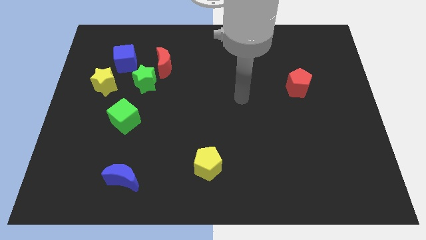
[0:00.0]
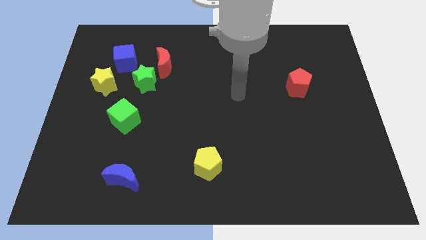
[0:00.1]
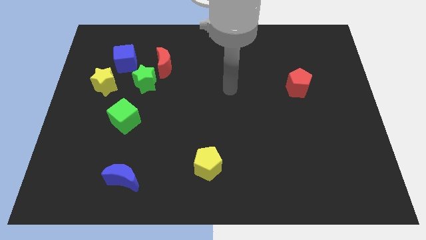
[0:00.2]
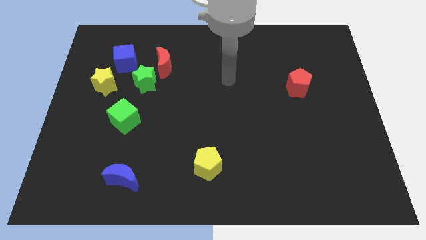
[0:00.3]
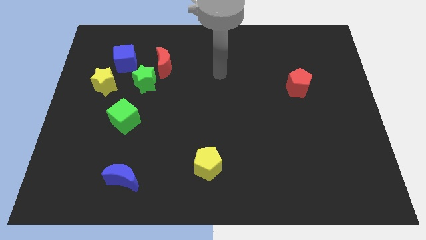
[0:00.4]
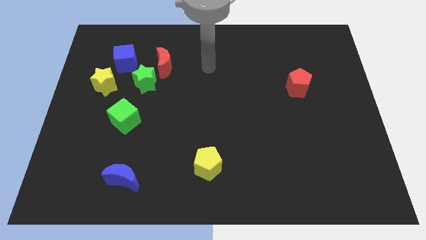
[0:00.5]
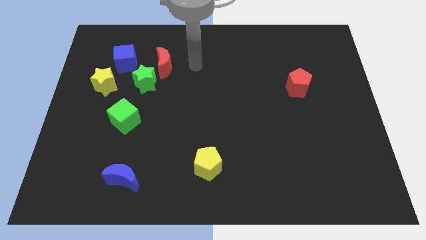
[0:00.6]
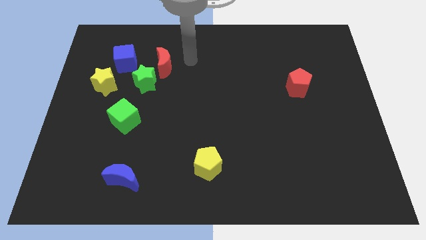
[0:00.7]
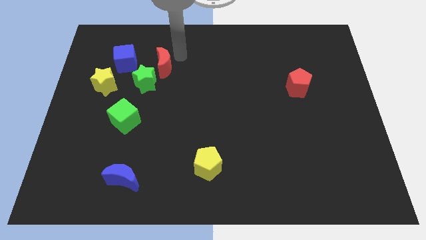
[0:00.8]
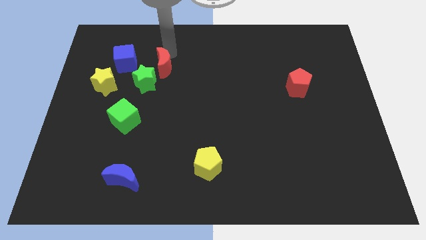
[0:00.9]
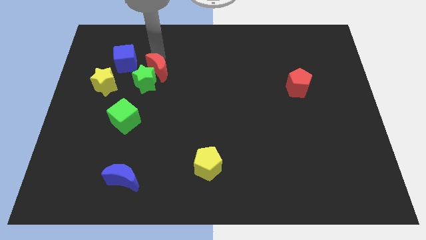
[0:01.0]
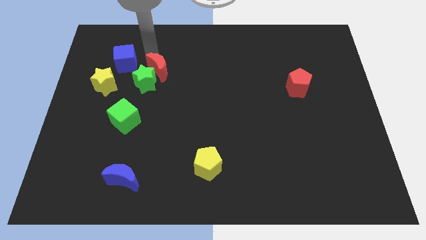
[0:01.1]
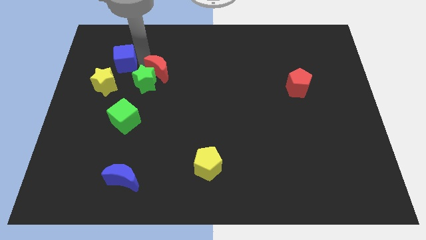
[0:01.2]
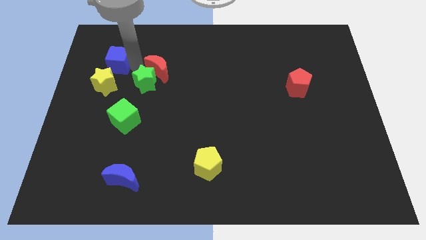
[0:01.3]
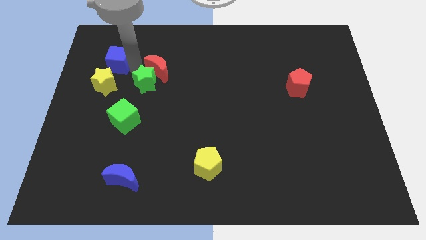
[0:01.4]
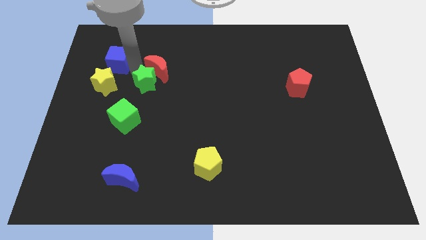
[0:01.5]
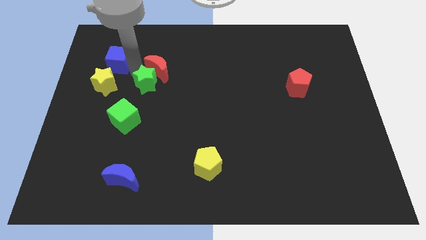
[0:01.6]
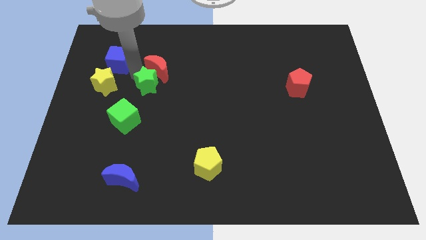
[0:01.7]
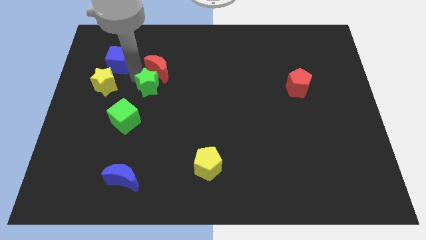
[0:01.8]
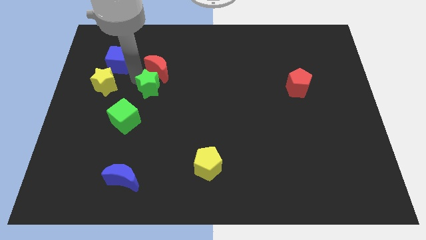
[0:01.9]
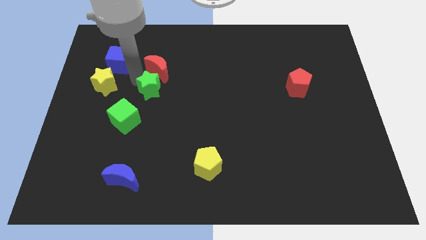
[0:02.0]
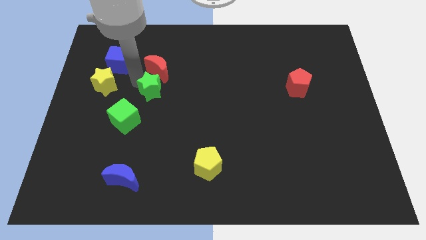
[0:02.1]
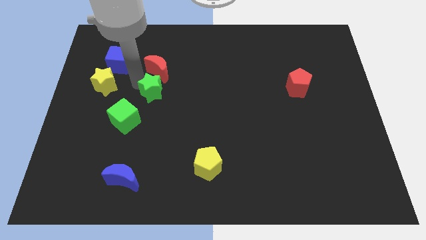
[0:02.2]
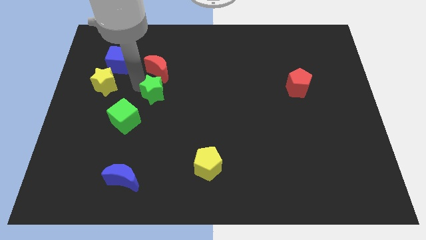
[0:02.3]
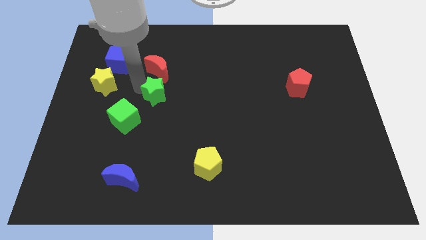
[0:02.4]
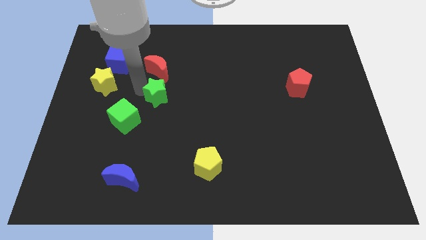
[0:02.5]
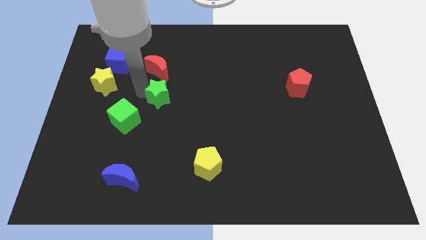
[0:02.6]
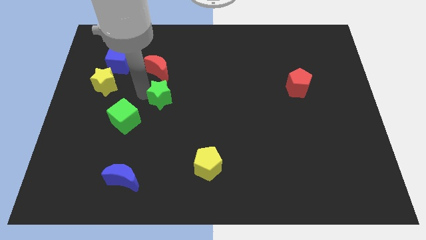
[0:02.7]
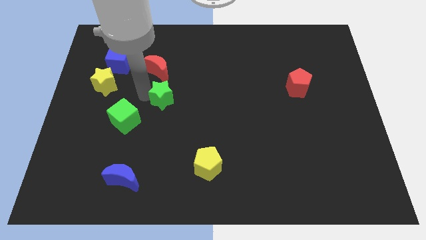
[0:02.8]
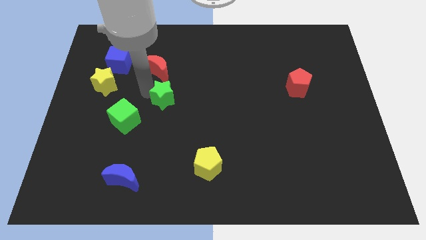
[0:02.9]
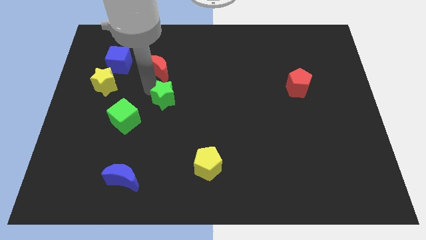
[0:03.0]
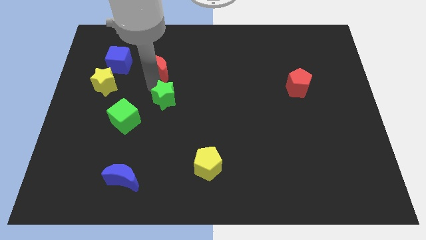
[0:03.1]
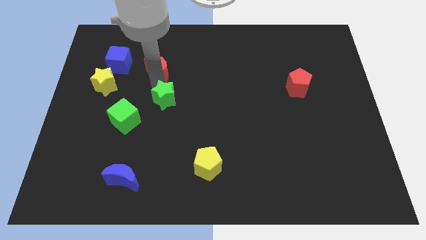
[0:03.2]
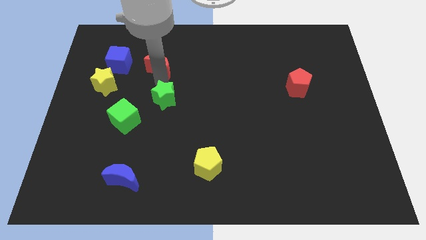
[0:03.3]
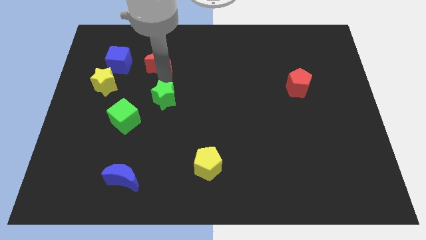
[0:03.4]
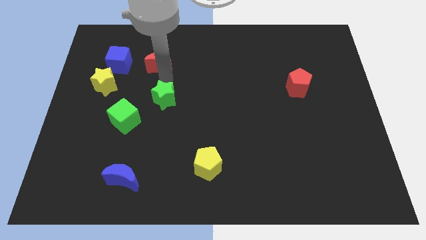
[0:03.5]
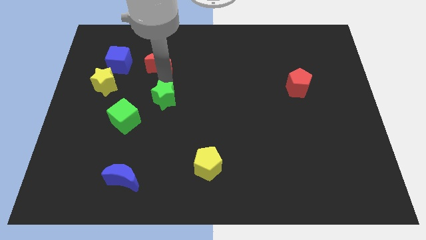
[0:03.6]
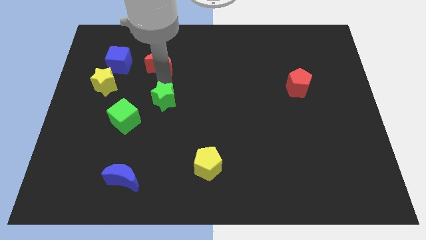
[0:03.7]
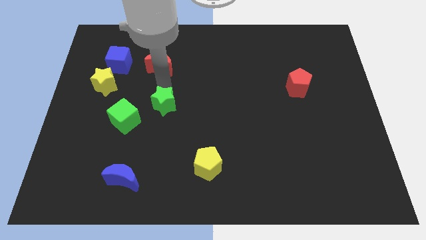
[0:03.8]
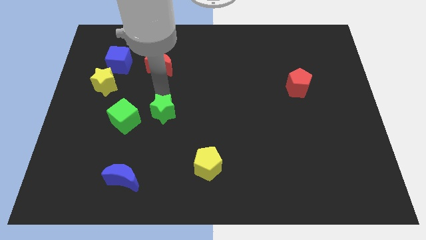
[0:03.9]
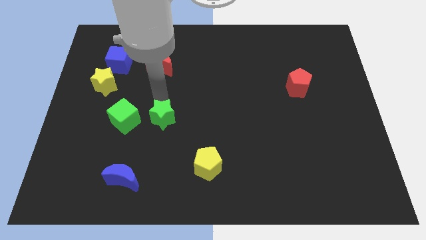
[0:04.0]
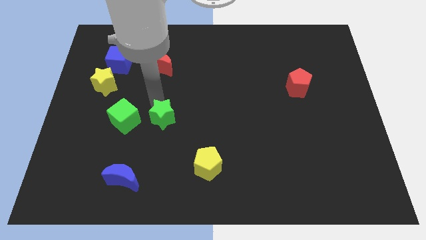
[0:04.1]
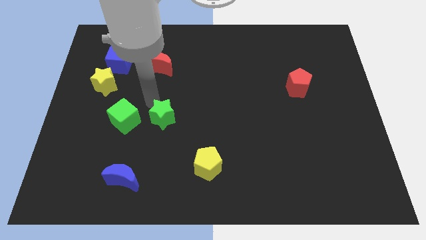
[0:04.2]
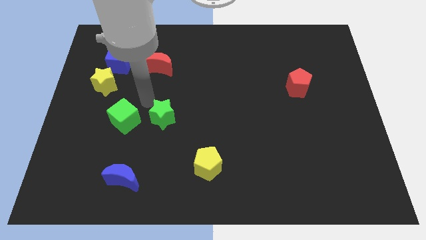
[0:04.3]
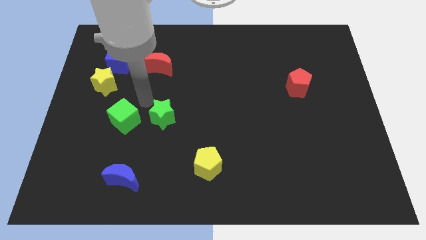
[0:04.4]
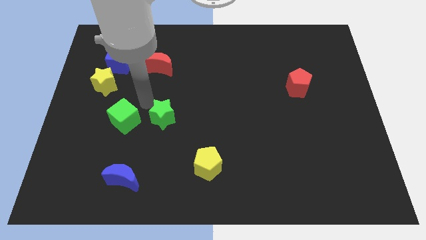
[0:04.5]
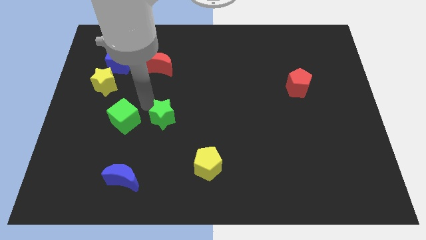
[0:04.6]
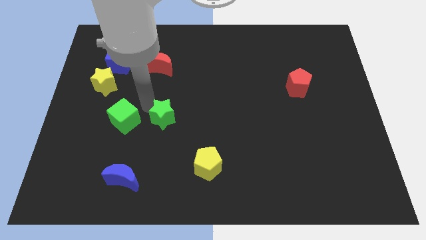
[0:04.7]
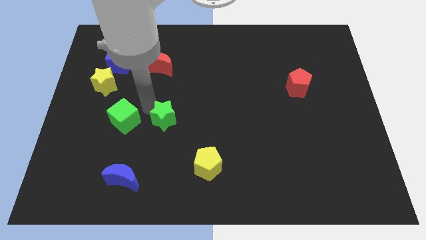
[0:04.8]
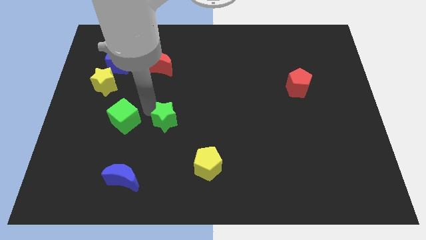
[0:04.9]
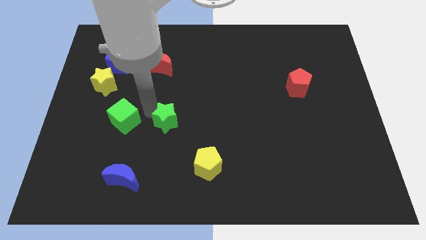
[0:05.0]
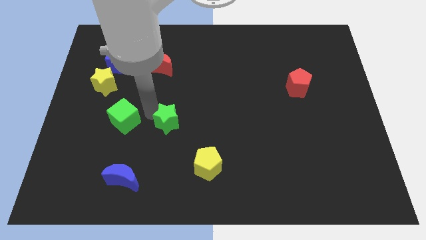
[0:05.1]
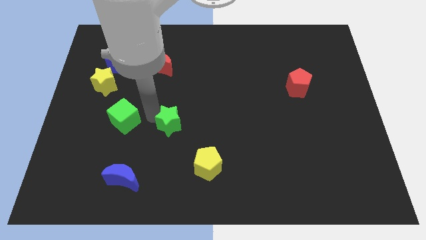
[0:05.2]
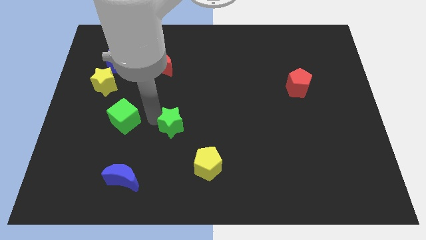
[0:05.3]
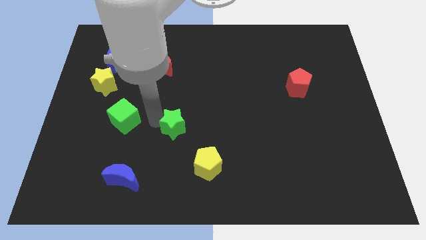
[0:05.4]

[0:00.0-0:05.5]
push the green star to the top left side of the yellow pentagon

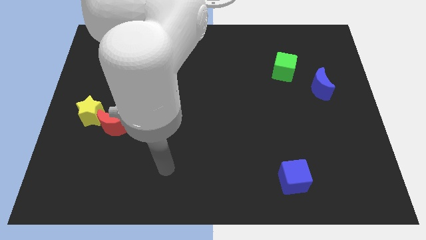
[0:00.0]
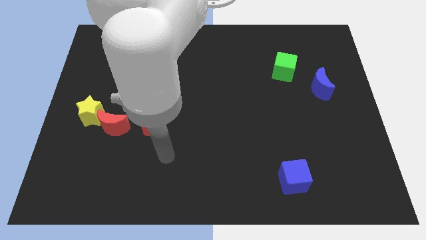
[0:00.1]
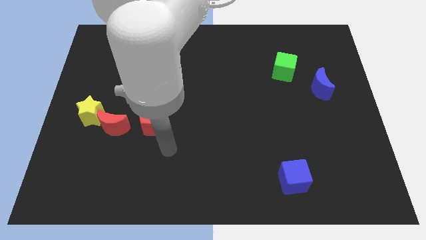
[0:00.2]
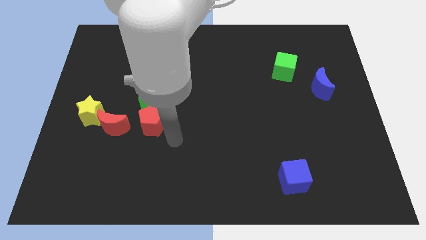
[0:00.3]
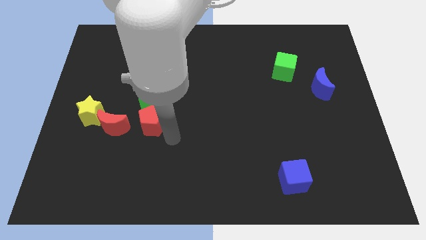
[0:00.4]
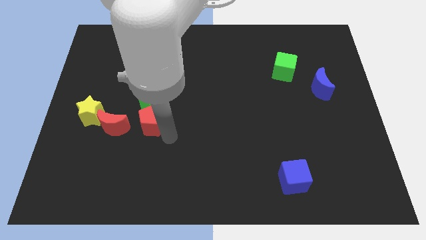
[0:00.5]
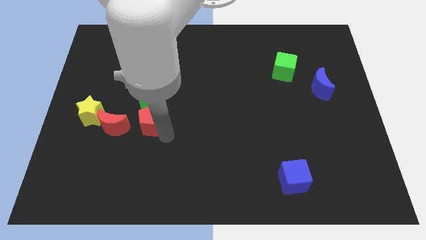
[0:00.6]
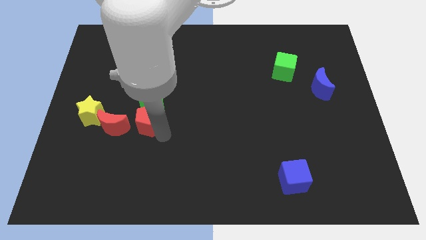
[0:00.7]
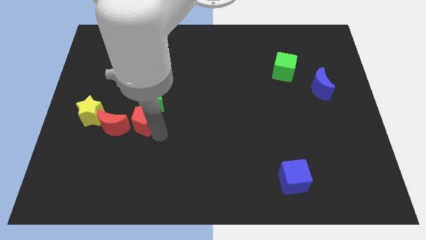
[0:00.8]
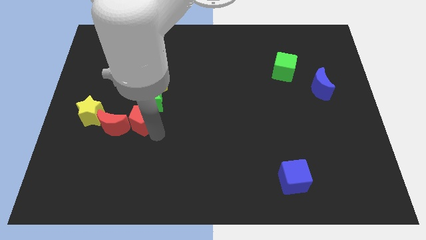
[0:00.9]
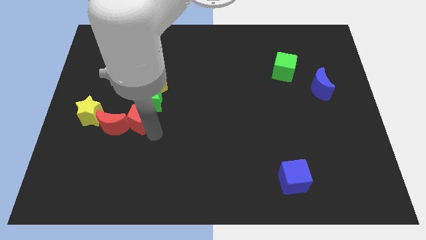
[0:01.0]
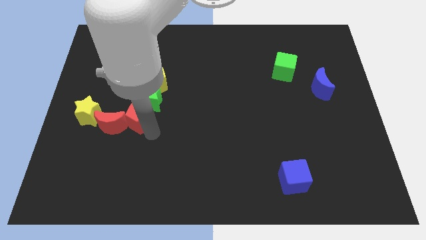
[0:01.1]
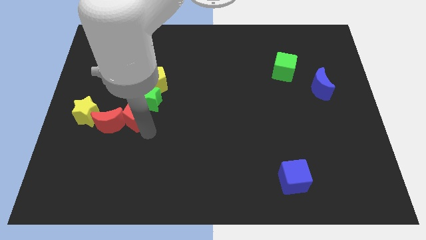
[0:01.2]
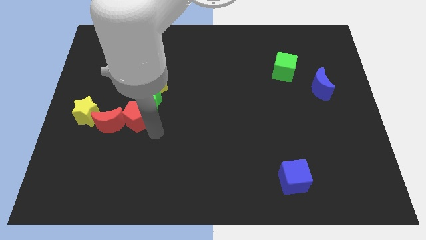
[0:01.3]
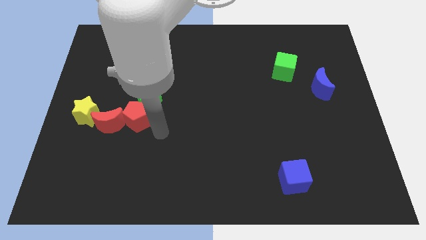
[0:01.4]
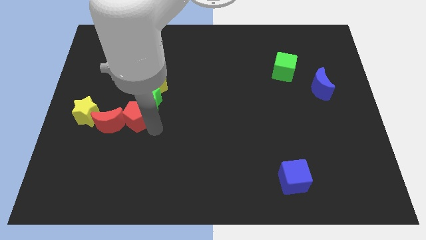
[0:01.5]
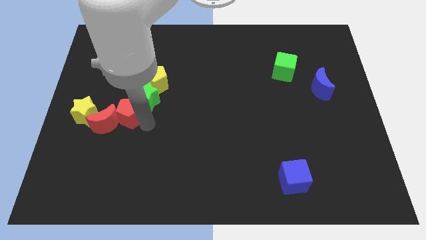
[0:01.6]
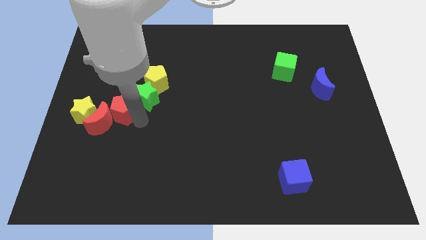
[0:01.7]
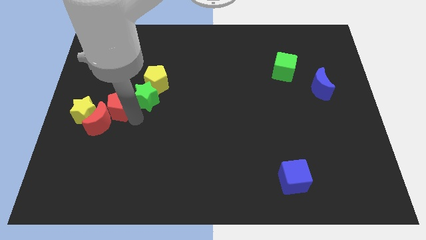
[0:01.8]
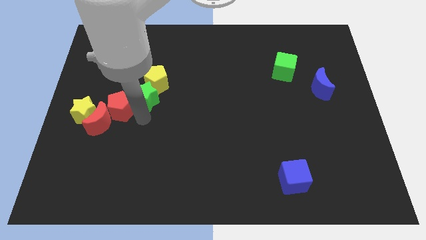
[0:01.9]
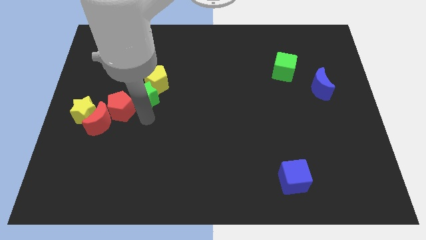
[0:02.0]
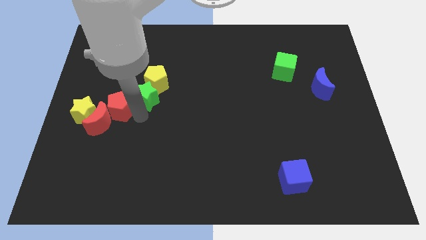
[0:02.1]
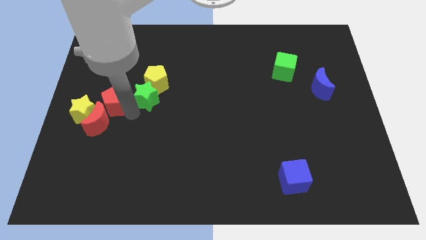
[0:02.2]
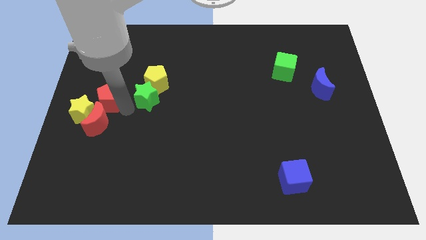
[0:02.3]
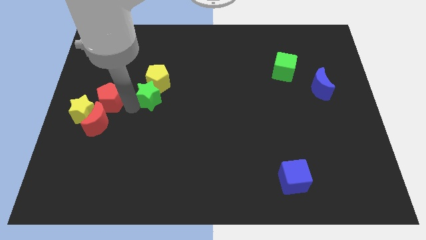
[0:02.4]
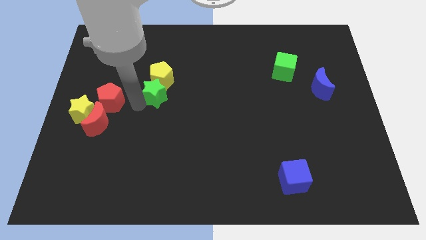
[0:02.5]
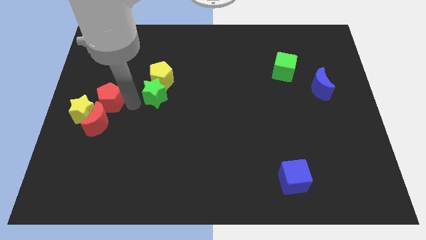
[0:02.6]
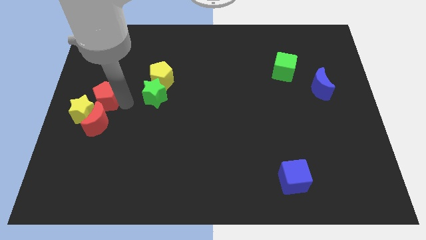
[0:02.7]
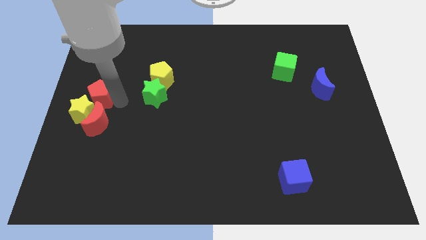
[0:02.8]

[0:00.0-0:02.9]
move the red pentagon to the top left side of the red moon
